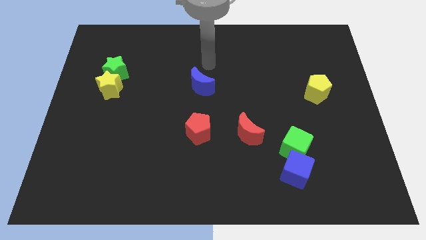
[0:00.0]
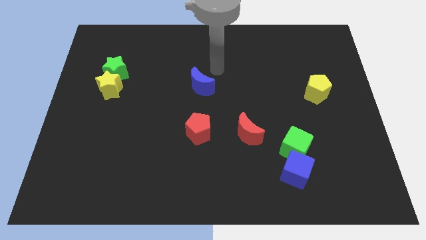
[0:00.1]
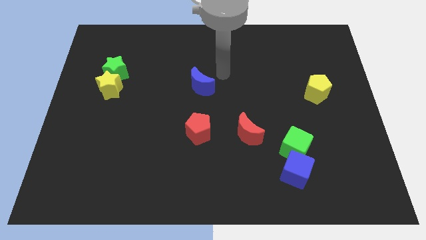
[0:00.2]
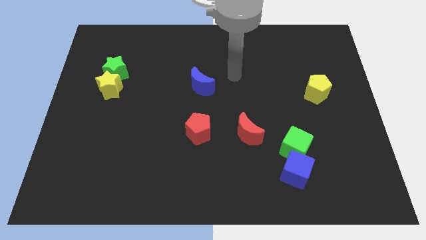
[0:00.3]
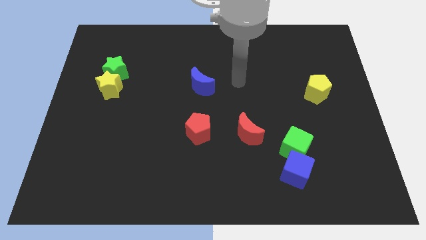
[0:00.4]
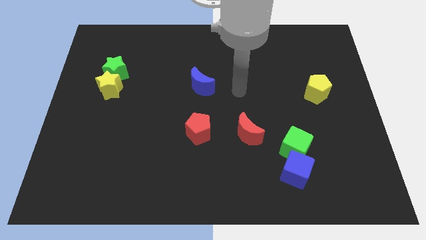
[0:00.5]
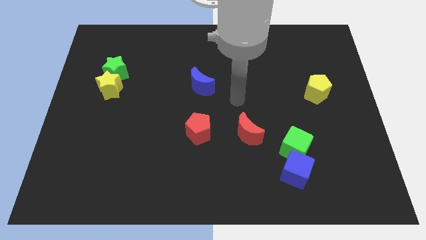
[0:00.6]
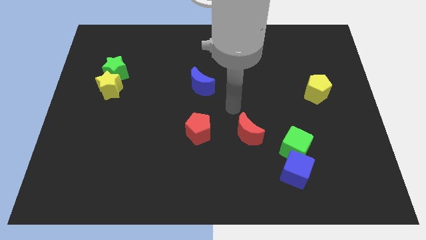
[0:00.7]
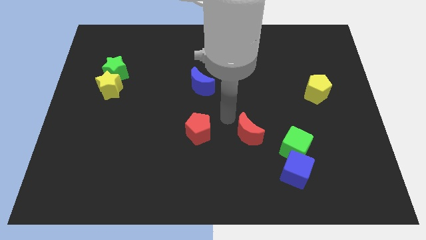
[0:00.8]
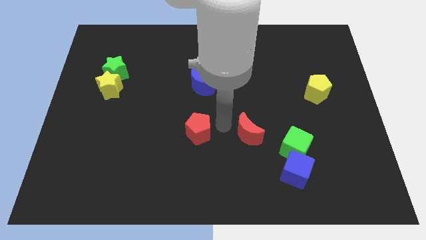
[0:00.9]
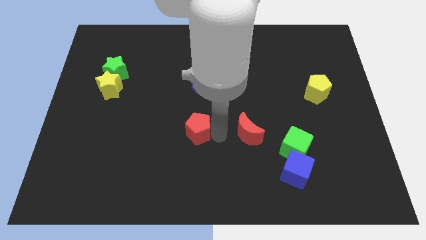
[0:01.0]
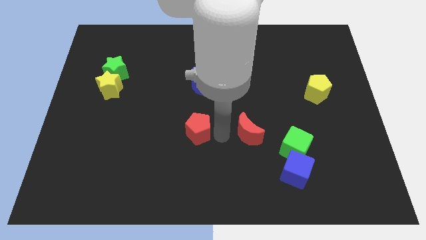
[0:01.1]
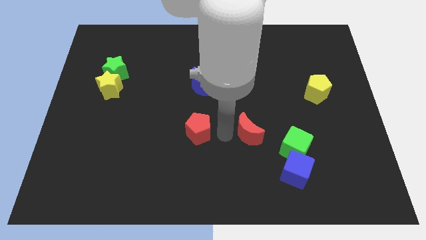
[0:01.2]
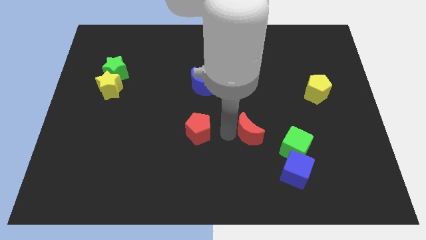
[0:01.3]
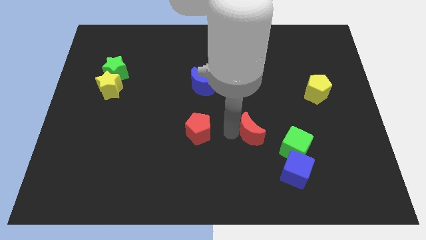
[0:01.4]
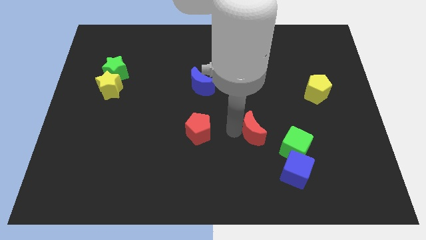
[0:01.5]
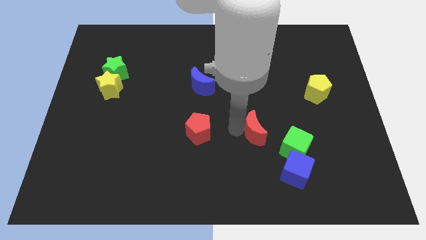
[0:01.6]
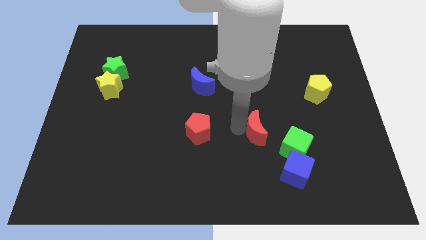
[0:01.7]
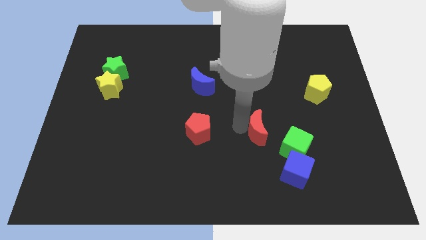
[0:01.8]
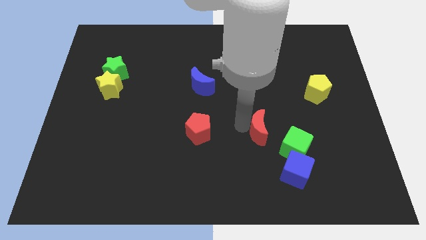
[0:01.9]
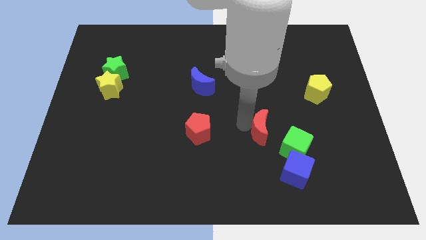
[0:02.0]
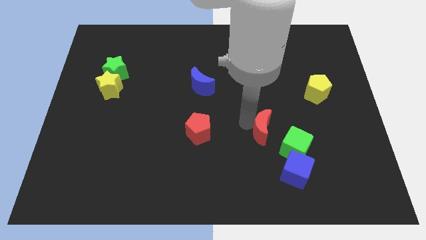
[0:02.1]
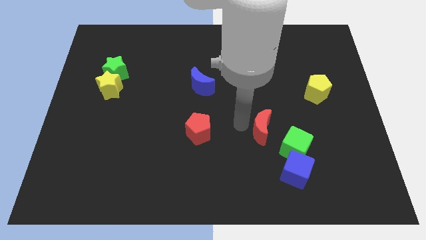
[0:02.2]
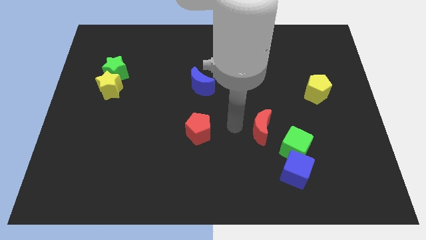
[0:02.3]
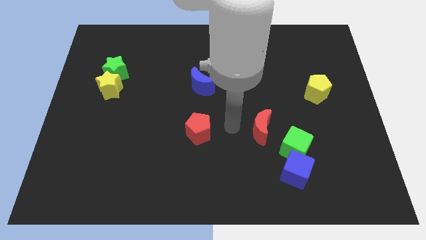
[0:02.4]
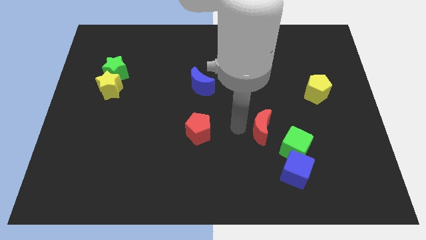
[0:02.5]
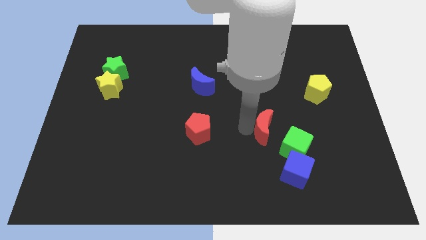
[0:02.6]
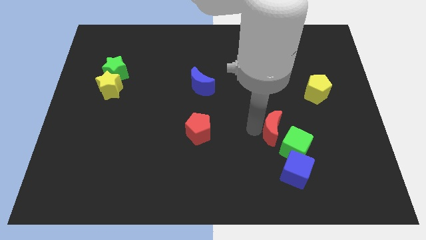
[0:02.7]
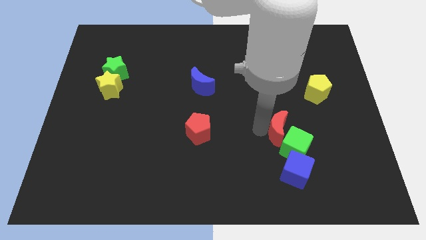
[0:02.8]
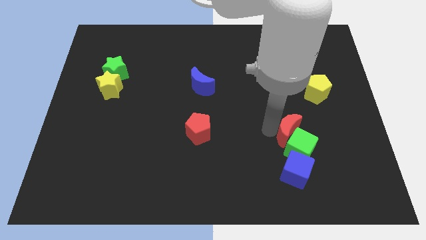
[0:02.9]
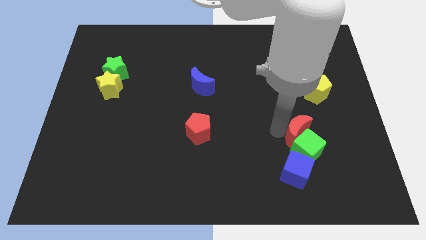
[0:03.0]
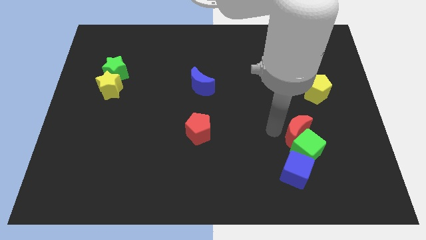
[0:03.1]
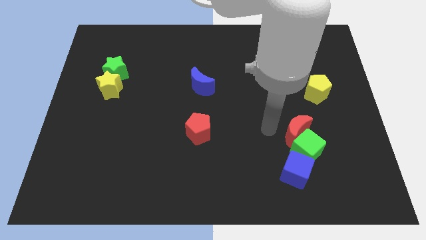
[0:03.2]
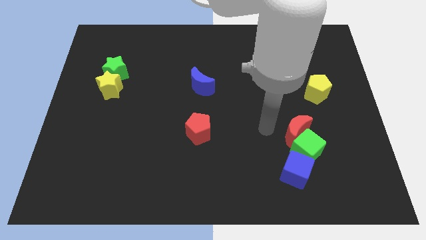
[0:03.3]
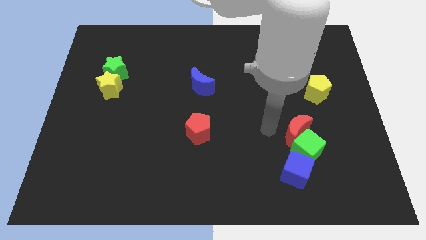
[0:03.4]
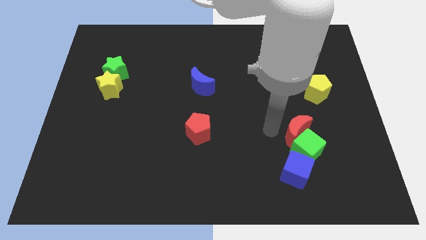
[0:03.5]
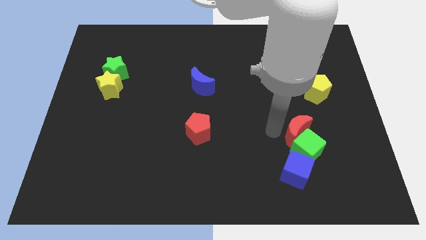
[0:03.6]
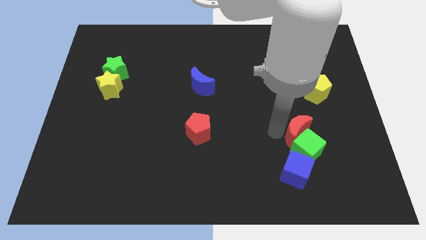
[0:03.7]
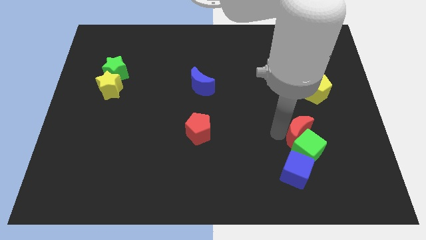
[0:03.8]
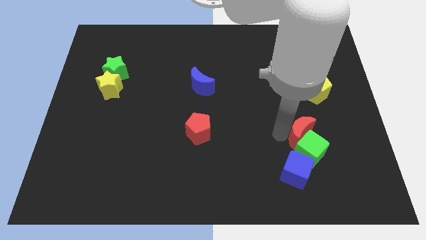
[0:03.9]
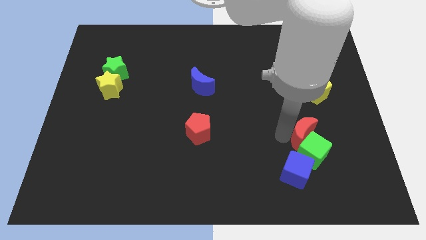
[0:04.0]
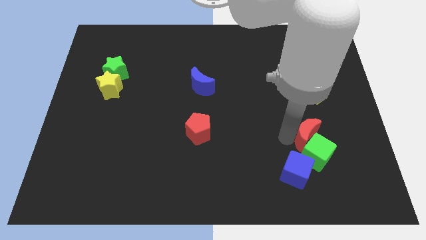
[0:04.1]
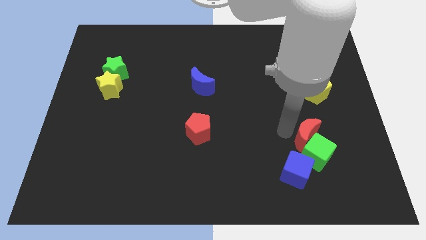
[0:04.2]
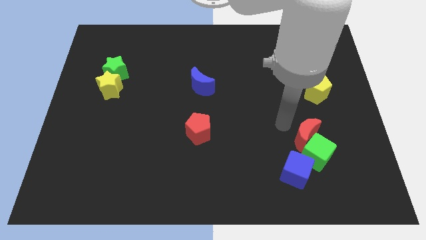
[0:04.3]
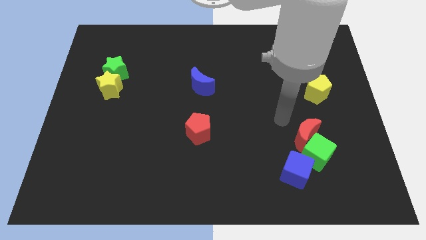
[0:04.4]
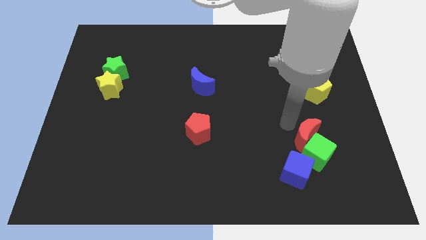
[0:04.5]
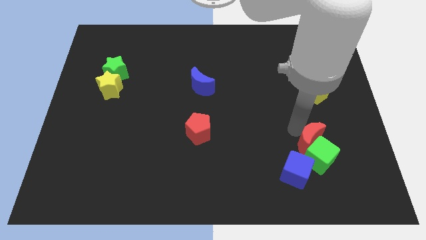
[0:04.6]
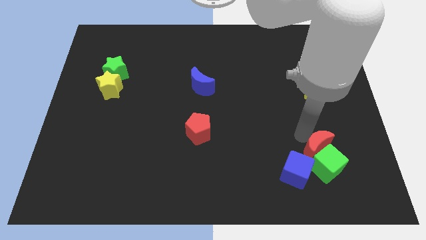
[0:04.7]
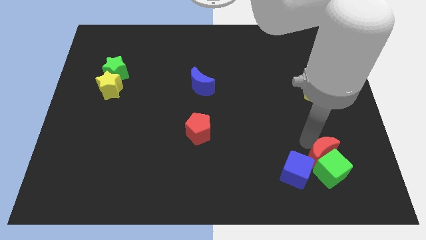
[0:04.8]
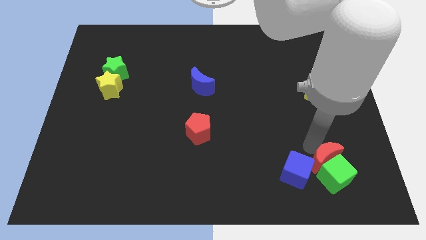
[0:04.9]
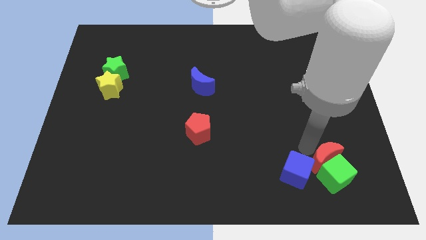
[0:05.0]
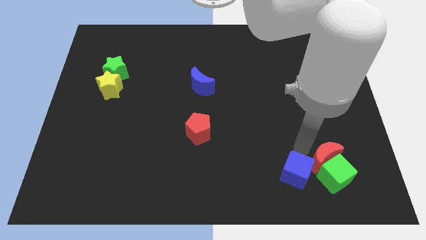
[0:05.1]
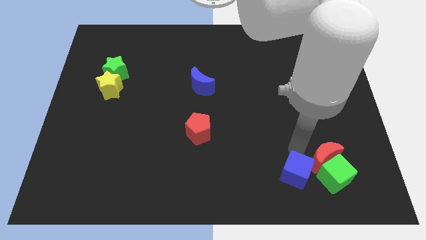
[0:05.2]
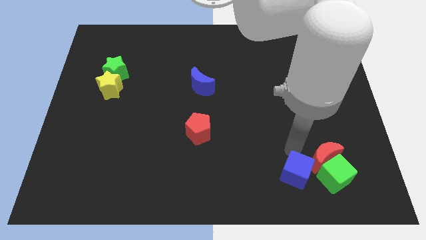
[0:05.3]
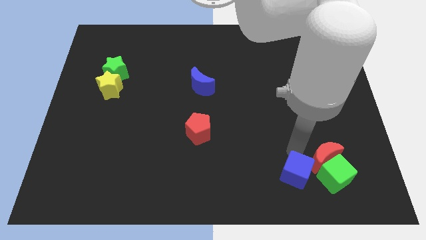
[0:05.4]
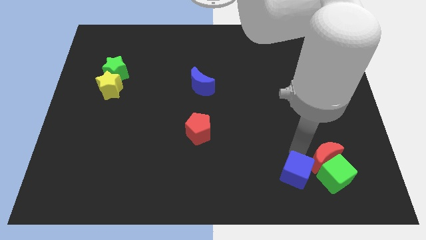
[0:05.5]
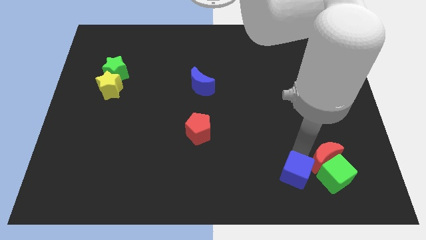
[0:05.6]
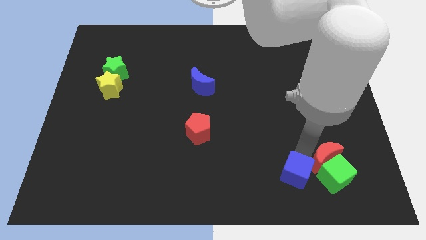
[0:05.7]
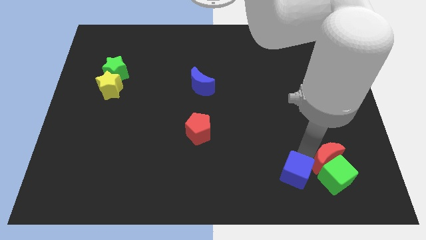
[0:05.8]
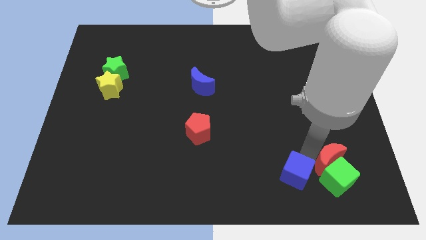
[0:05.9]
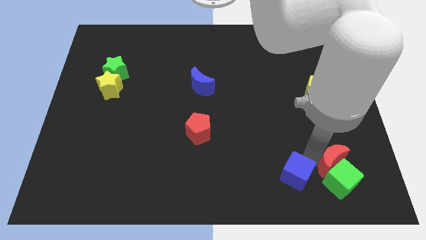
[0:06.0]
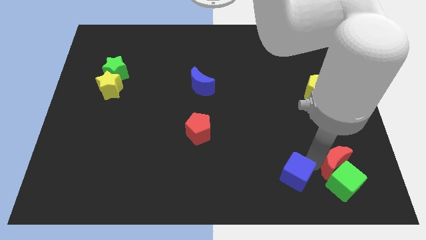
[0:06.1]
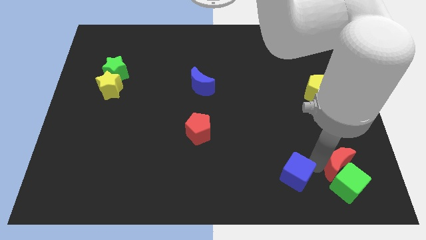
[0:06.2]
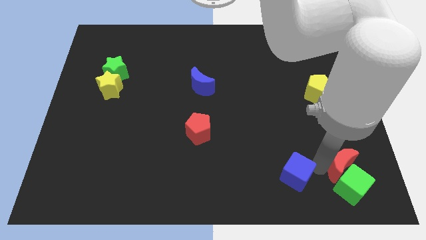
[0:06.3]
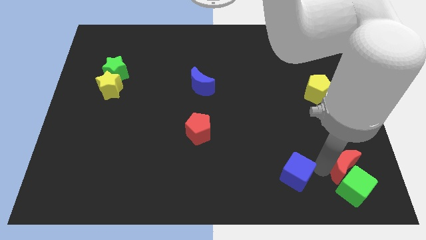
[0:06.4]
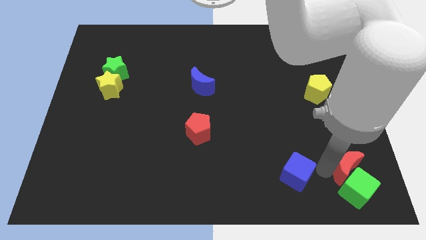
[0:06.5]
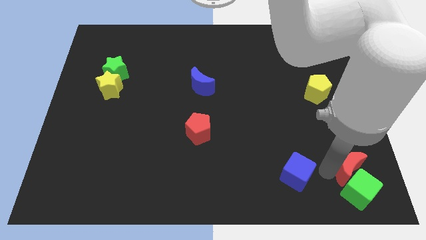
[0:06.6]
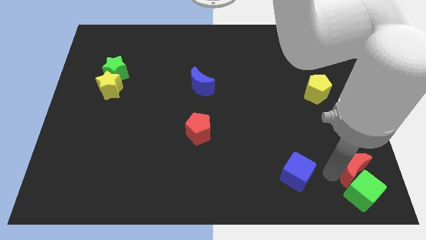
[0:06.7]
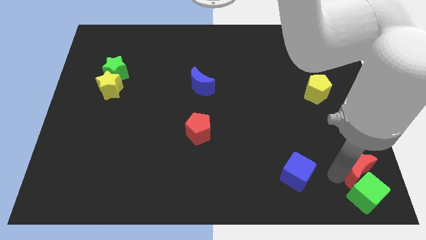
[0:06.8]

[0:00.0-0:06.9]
put the red moon to the lower right corner

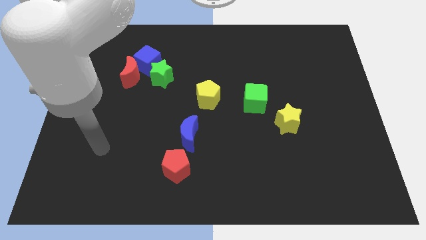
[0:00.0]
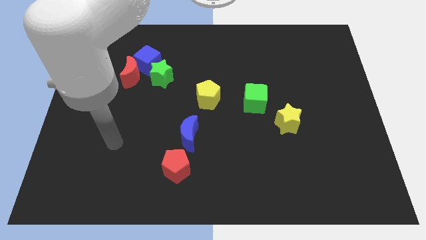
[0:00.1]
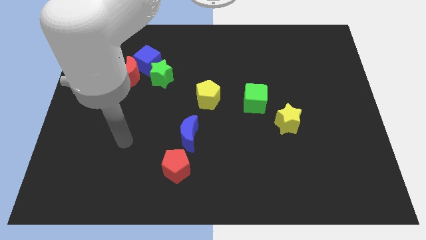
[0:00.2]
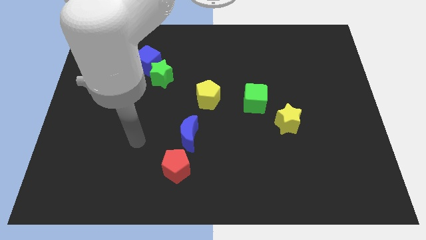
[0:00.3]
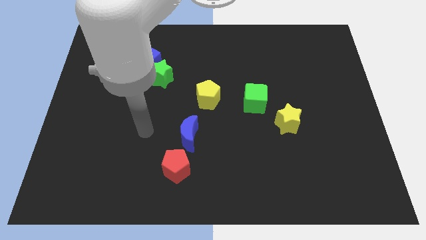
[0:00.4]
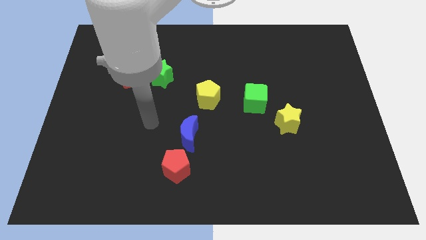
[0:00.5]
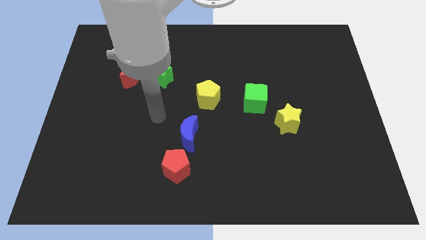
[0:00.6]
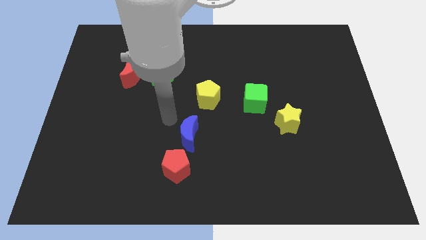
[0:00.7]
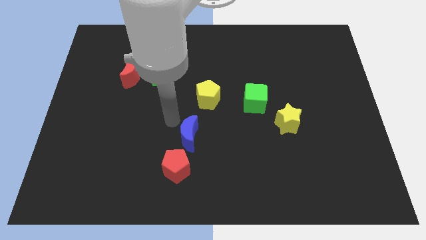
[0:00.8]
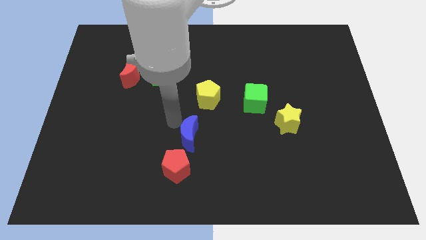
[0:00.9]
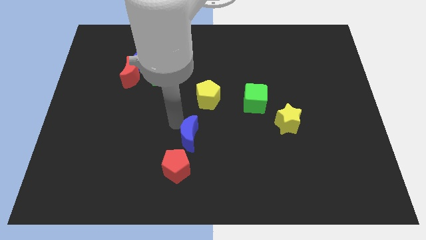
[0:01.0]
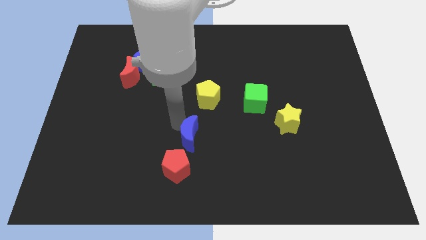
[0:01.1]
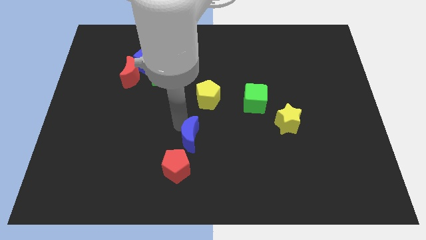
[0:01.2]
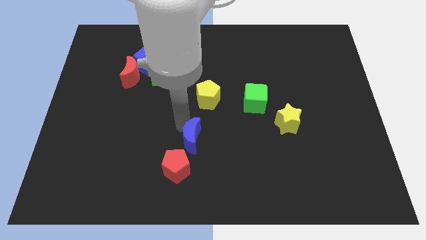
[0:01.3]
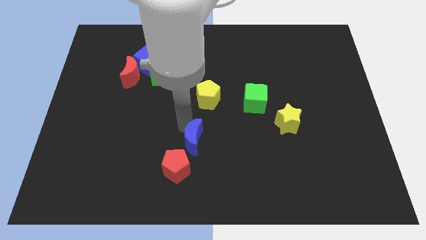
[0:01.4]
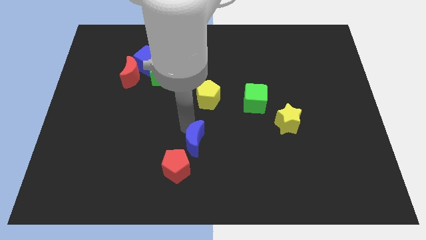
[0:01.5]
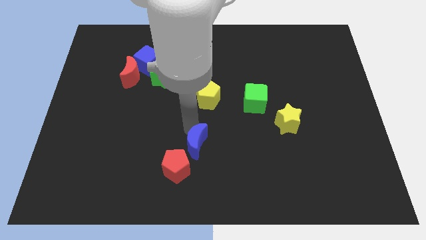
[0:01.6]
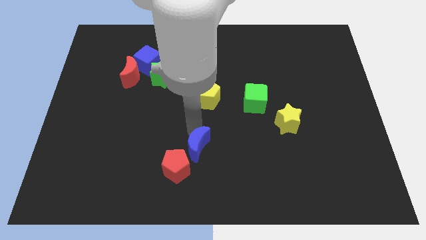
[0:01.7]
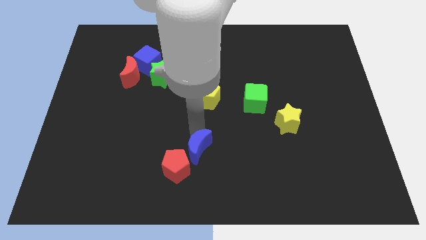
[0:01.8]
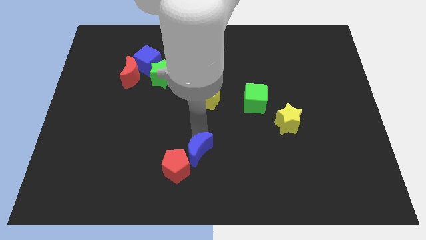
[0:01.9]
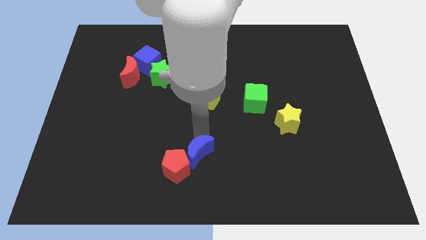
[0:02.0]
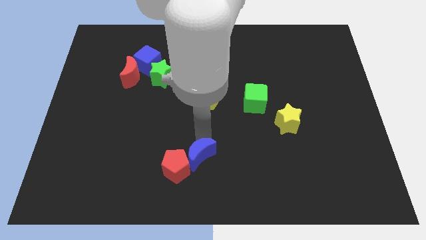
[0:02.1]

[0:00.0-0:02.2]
push the blue moon to the bottom side
